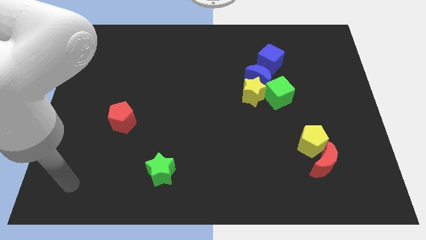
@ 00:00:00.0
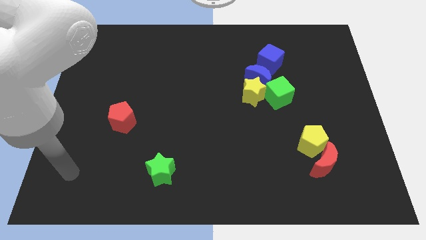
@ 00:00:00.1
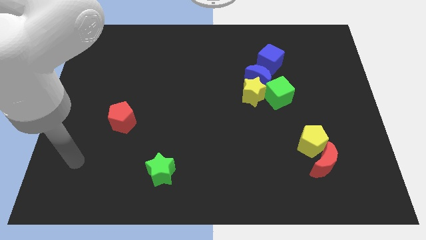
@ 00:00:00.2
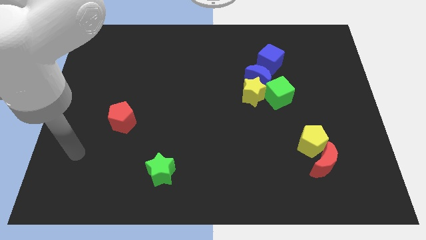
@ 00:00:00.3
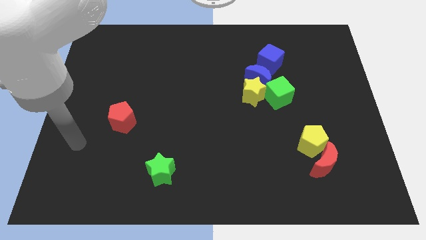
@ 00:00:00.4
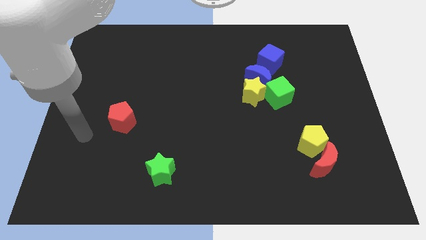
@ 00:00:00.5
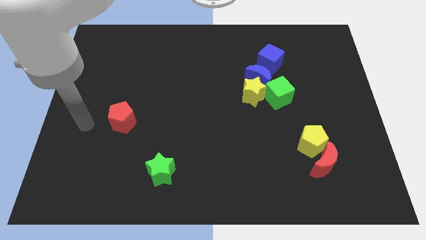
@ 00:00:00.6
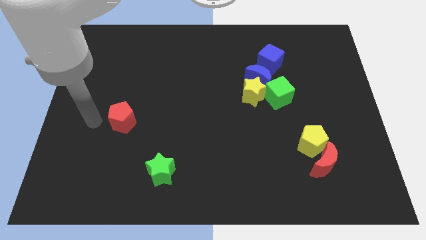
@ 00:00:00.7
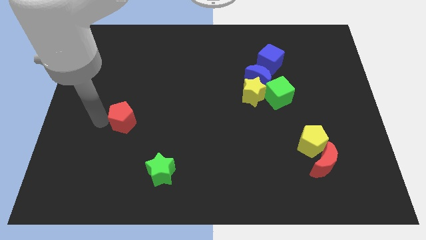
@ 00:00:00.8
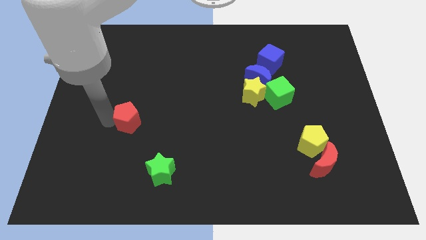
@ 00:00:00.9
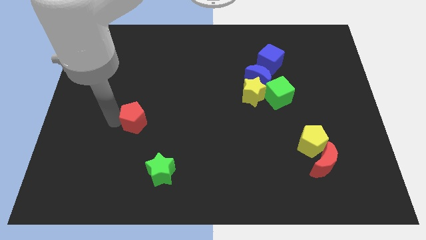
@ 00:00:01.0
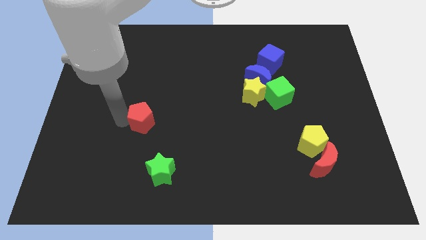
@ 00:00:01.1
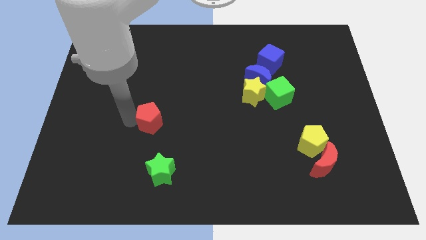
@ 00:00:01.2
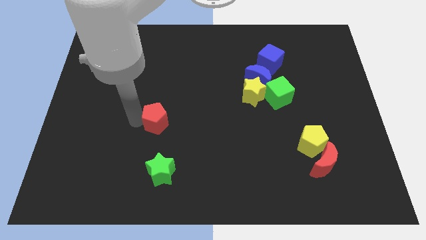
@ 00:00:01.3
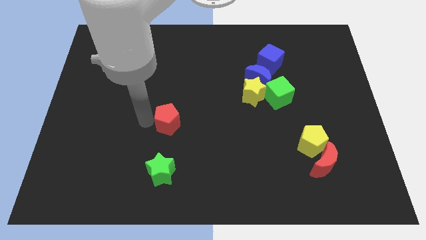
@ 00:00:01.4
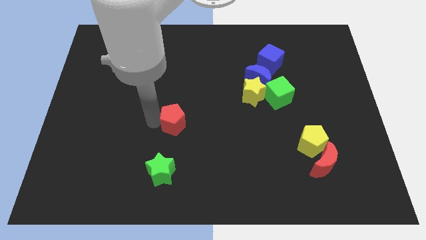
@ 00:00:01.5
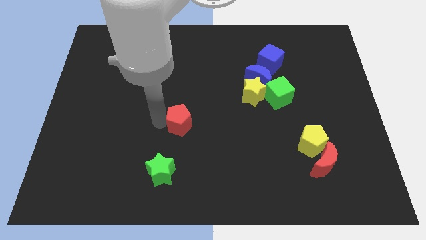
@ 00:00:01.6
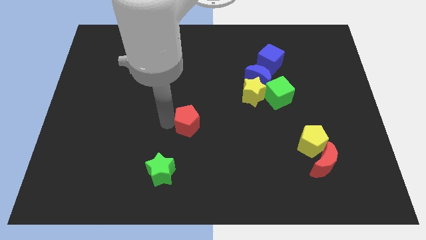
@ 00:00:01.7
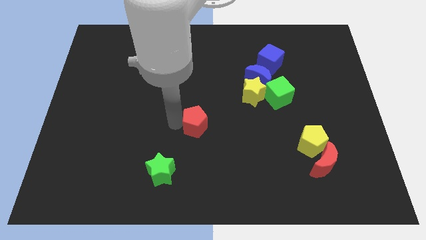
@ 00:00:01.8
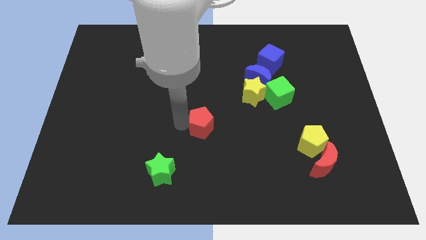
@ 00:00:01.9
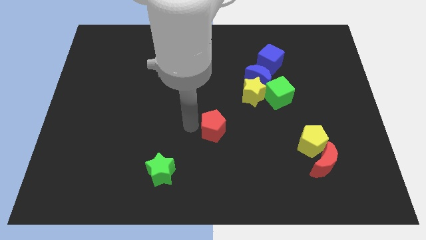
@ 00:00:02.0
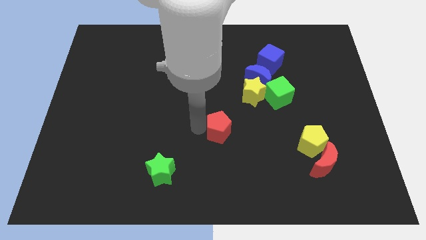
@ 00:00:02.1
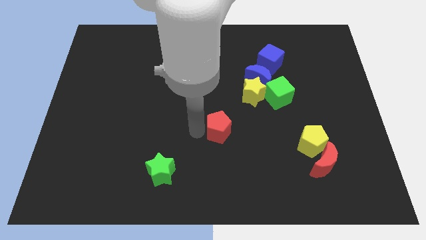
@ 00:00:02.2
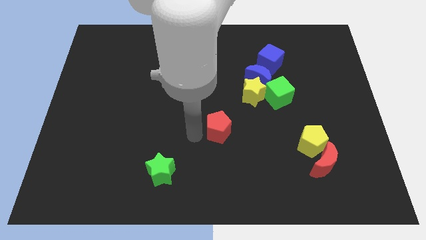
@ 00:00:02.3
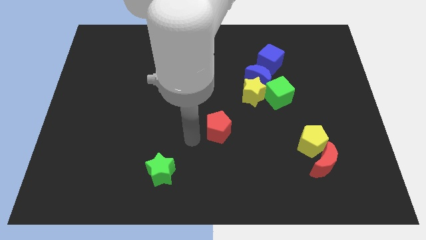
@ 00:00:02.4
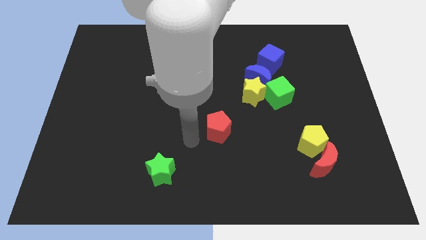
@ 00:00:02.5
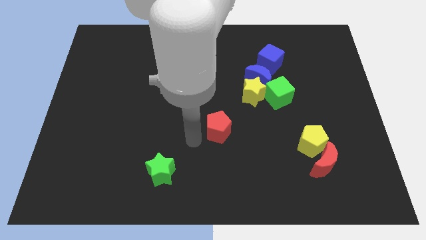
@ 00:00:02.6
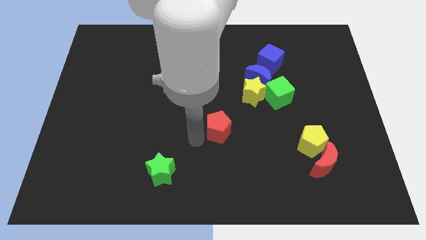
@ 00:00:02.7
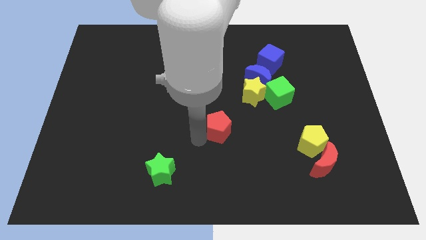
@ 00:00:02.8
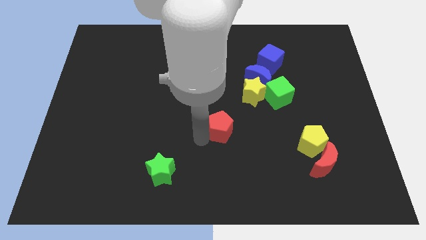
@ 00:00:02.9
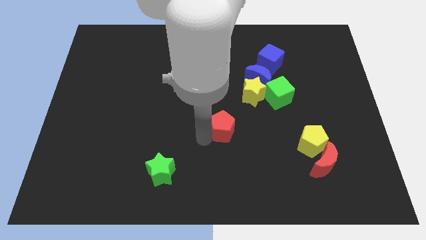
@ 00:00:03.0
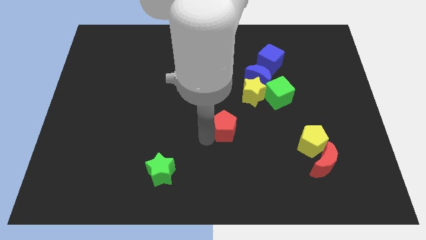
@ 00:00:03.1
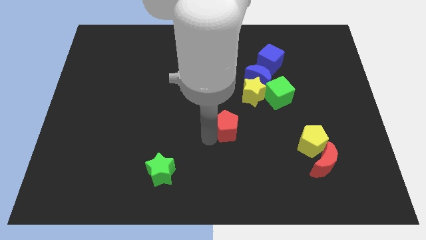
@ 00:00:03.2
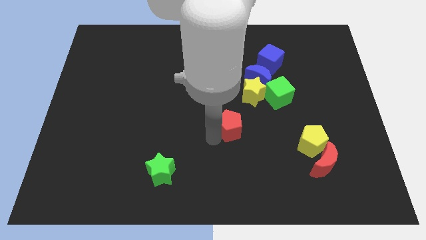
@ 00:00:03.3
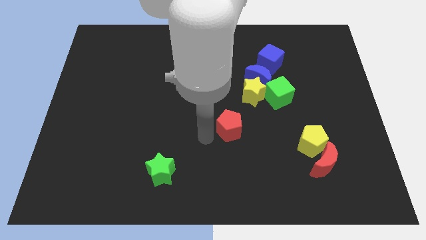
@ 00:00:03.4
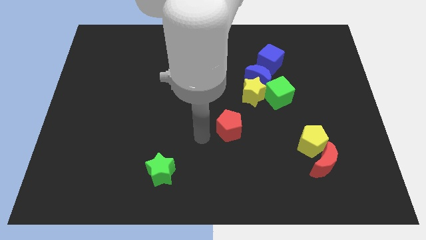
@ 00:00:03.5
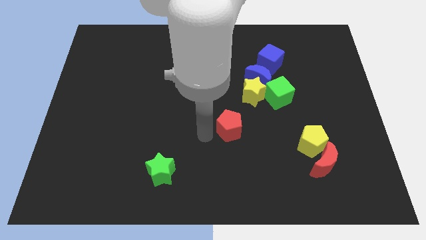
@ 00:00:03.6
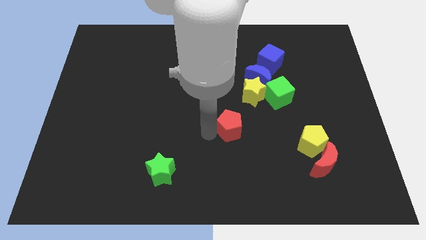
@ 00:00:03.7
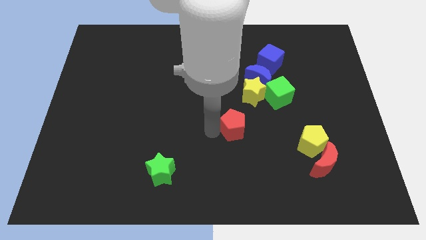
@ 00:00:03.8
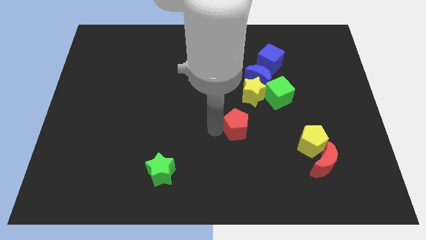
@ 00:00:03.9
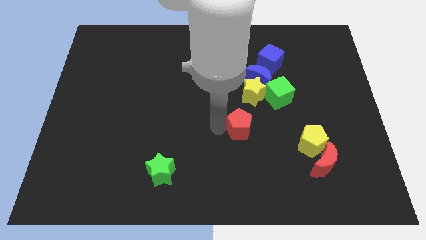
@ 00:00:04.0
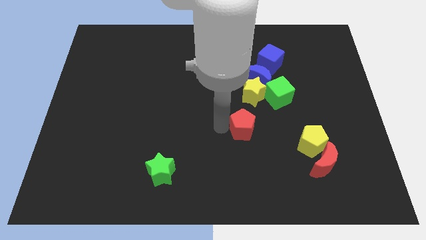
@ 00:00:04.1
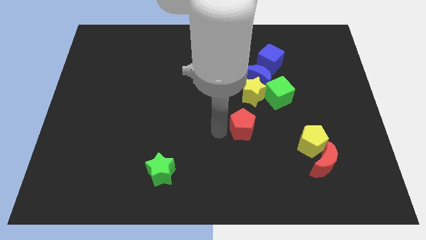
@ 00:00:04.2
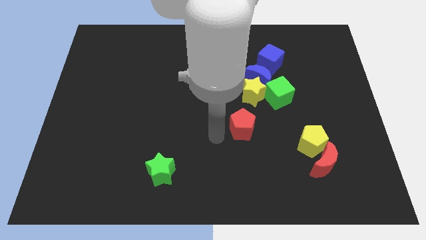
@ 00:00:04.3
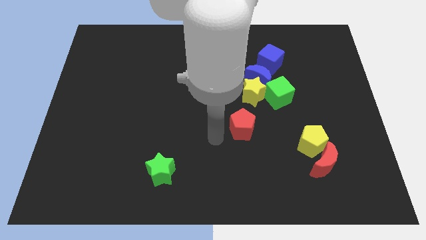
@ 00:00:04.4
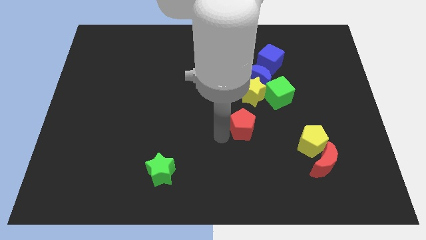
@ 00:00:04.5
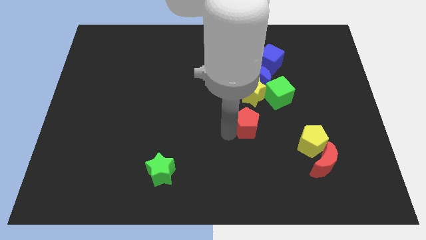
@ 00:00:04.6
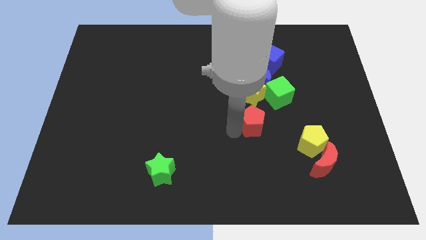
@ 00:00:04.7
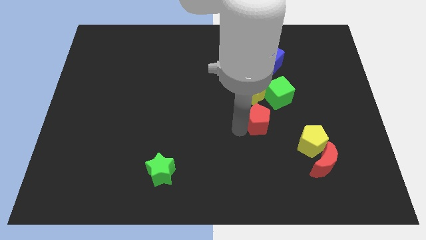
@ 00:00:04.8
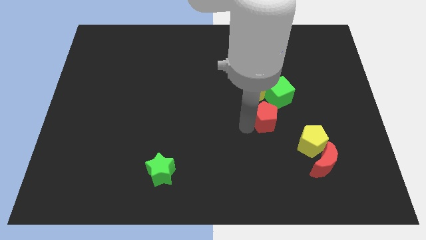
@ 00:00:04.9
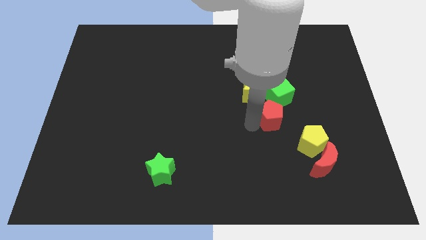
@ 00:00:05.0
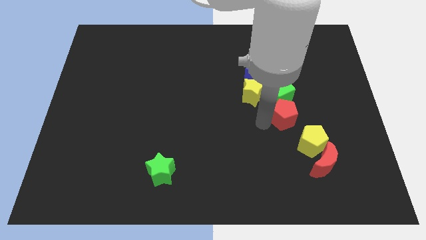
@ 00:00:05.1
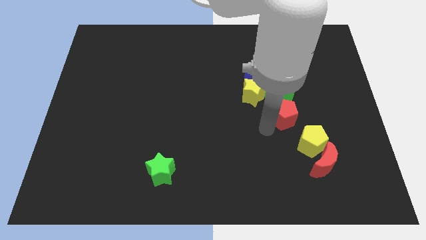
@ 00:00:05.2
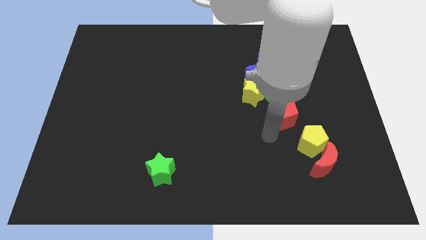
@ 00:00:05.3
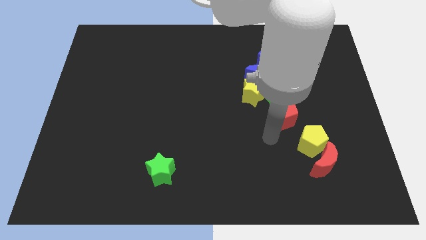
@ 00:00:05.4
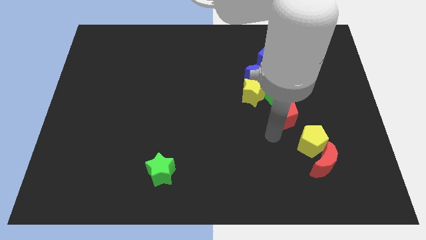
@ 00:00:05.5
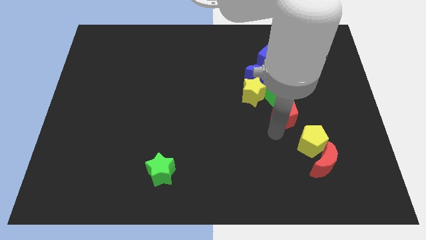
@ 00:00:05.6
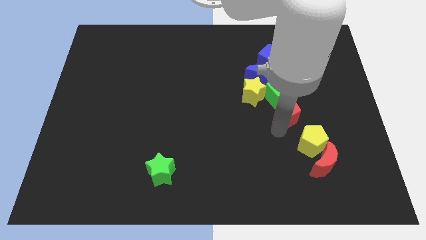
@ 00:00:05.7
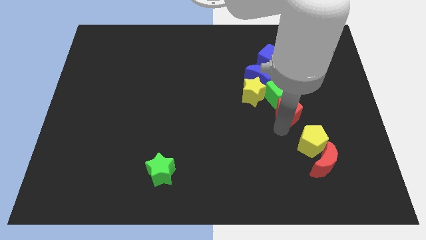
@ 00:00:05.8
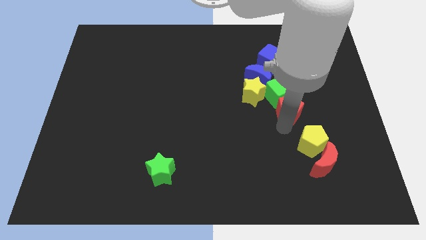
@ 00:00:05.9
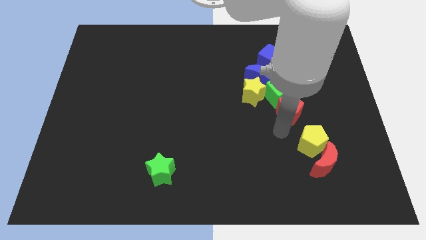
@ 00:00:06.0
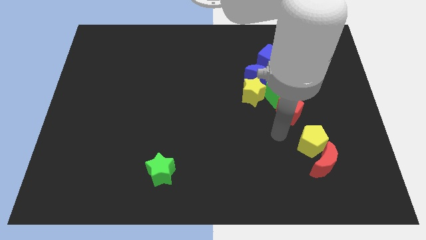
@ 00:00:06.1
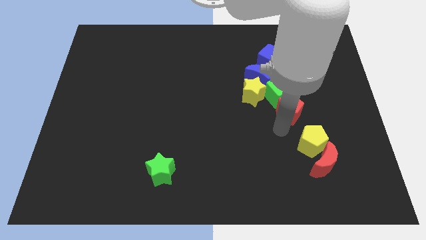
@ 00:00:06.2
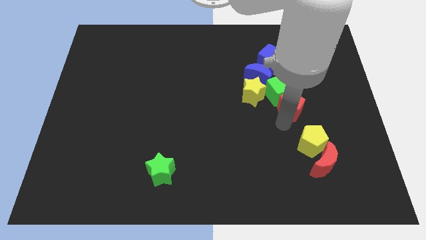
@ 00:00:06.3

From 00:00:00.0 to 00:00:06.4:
move the red pentagon right of the yellow star
